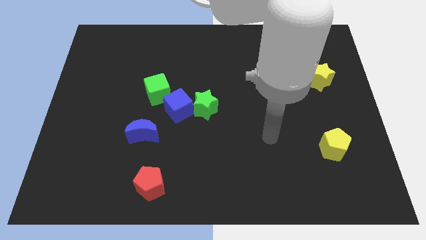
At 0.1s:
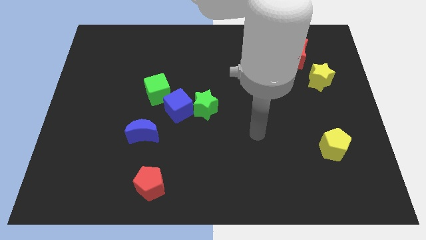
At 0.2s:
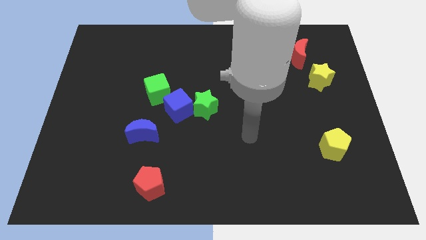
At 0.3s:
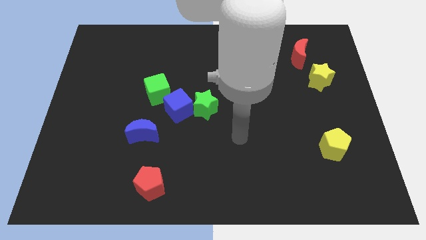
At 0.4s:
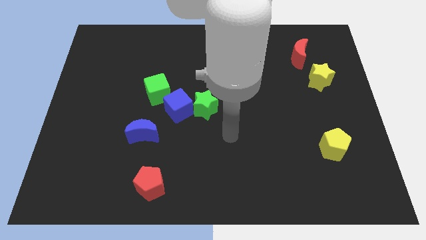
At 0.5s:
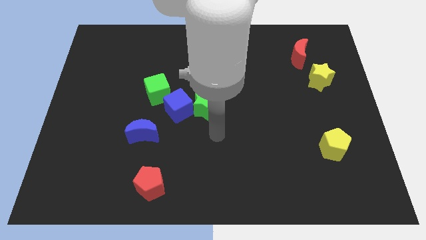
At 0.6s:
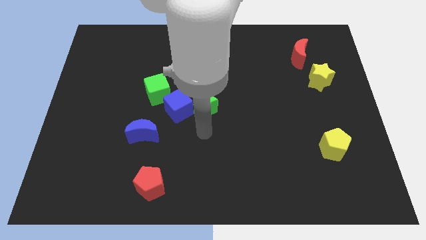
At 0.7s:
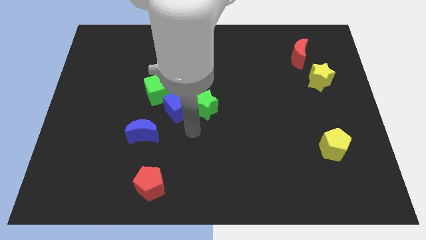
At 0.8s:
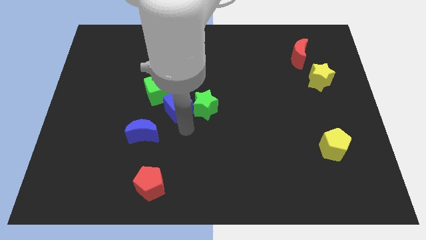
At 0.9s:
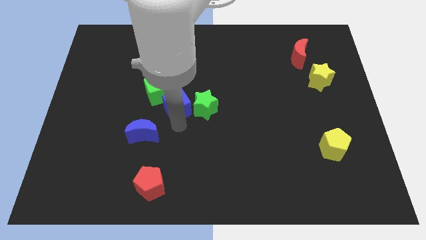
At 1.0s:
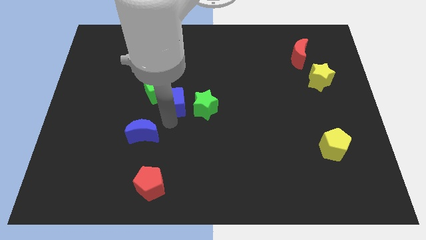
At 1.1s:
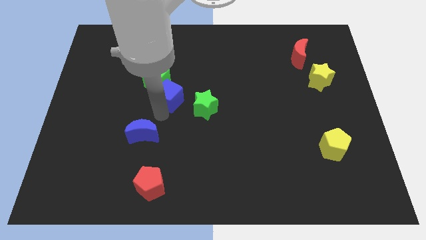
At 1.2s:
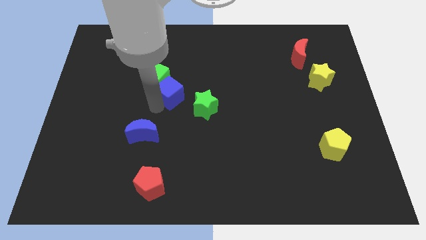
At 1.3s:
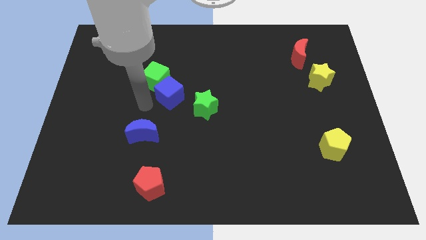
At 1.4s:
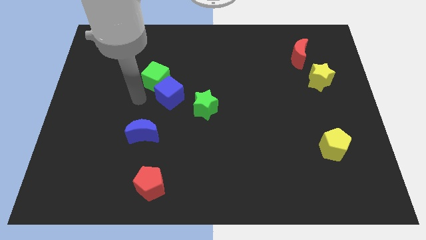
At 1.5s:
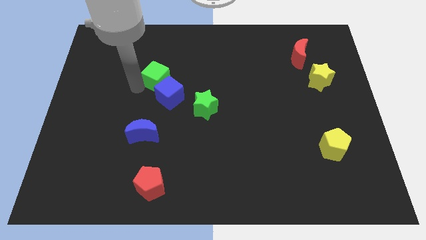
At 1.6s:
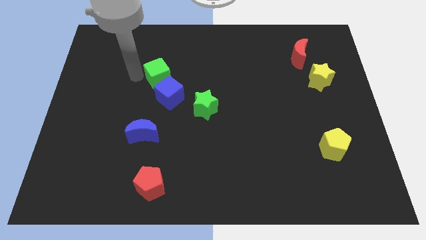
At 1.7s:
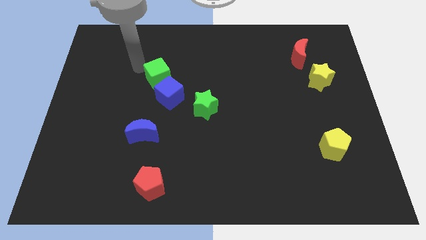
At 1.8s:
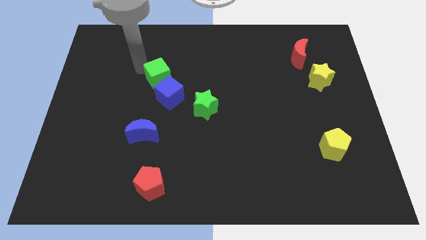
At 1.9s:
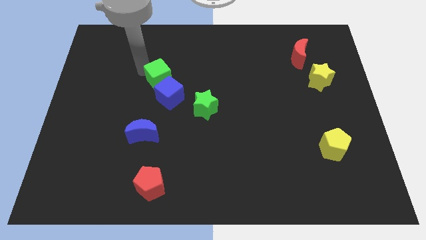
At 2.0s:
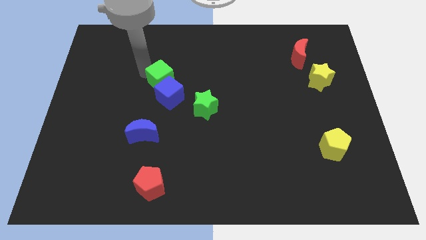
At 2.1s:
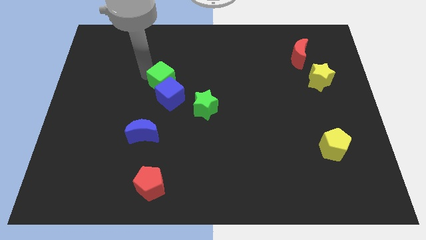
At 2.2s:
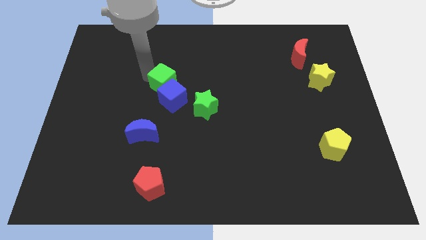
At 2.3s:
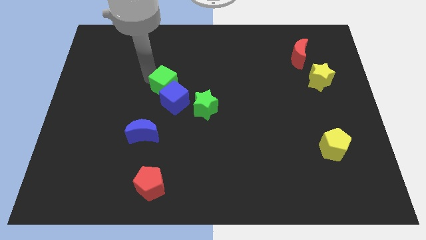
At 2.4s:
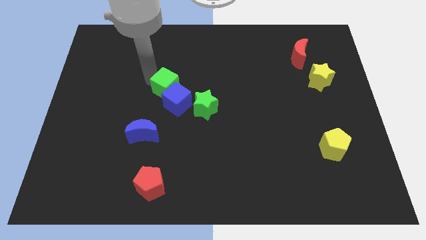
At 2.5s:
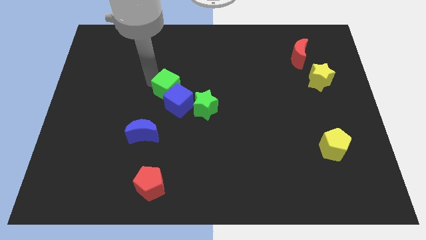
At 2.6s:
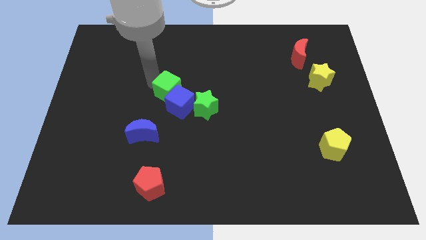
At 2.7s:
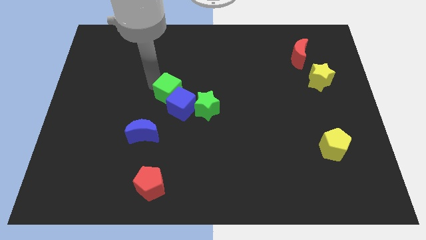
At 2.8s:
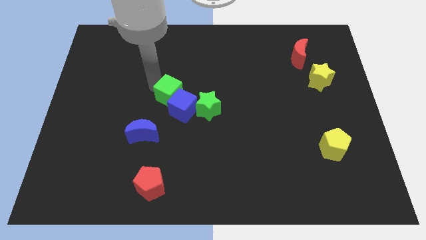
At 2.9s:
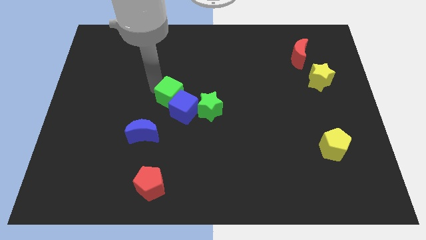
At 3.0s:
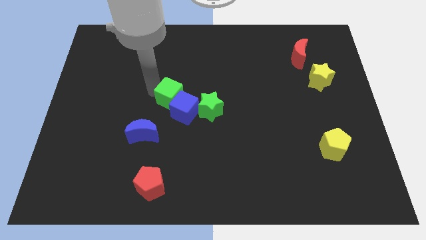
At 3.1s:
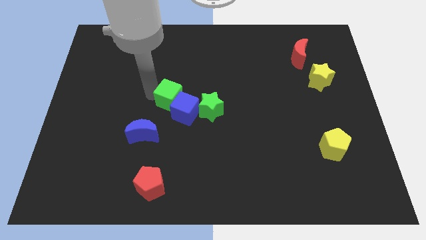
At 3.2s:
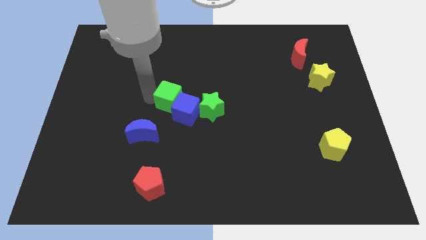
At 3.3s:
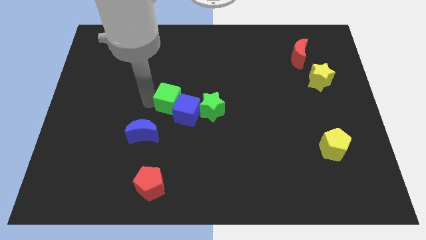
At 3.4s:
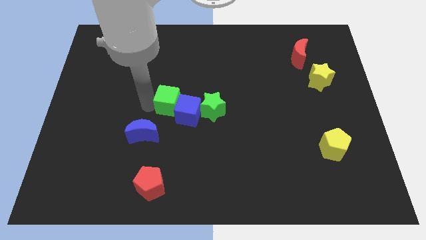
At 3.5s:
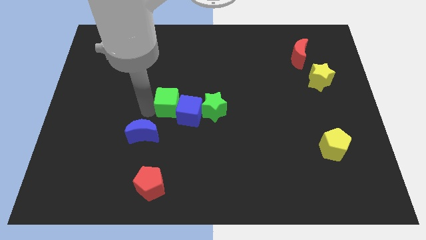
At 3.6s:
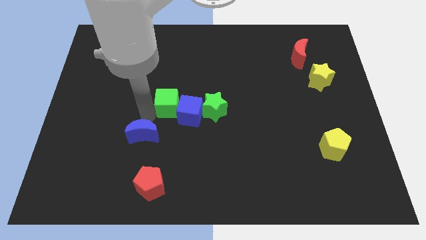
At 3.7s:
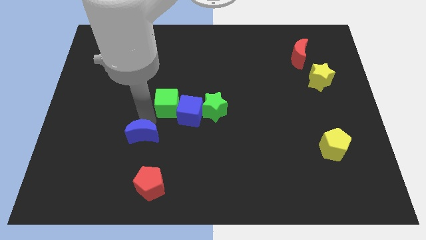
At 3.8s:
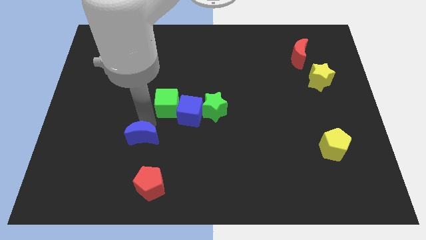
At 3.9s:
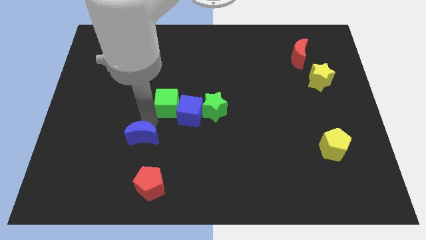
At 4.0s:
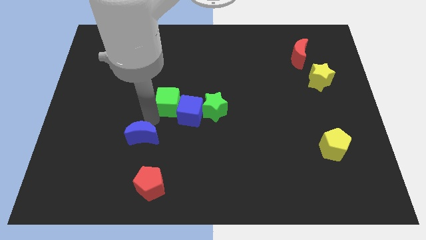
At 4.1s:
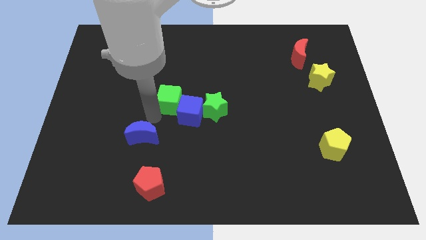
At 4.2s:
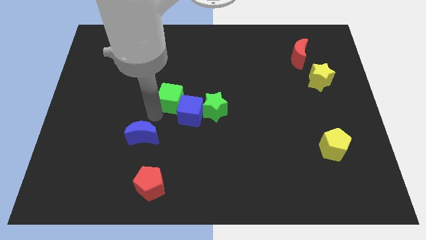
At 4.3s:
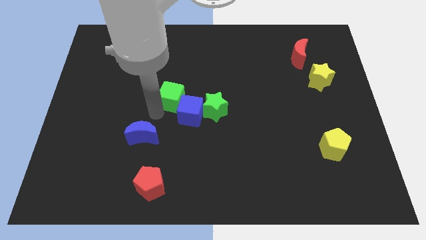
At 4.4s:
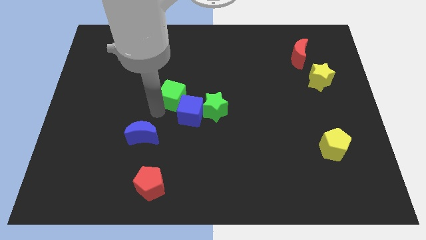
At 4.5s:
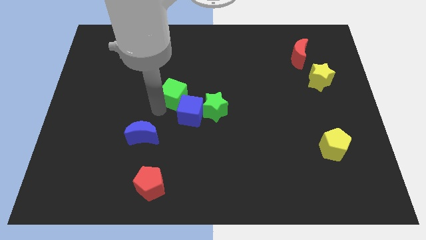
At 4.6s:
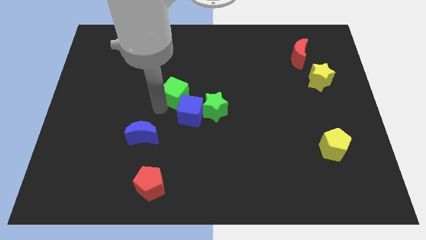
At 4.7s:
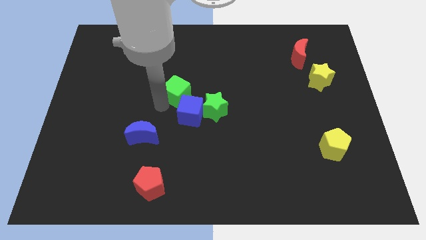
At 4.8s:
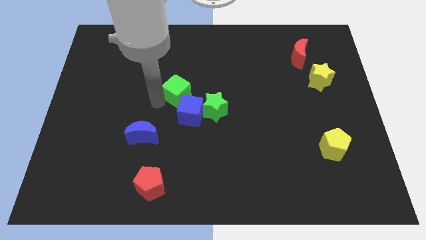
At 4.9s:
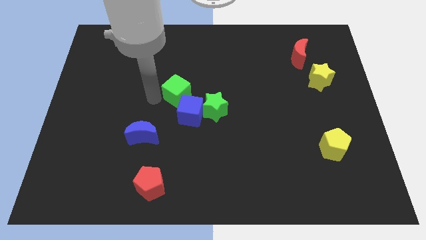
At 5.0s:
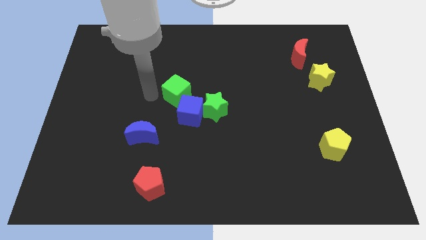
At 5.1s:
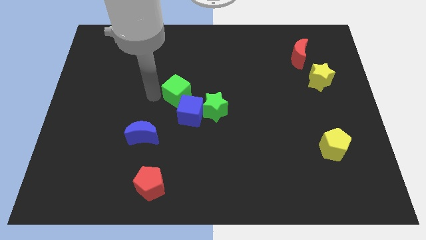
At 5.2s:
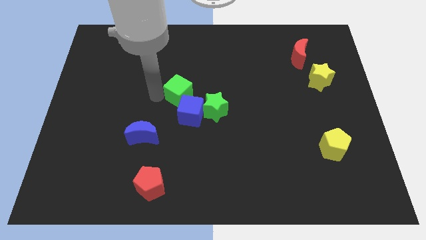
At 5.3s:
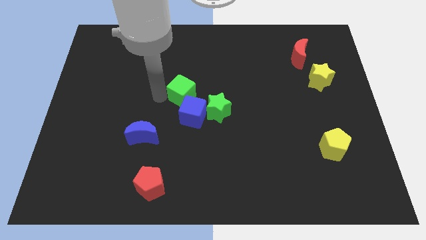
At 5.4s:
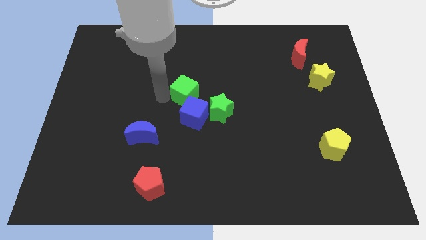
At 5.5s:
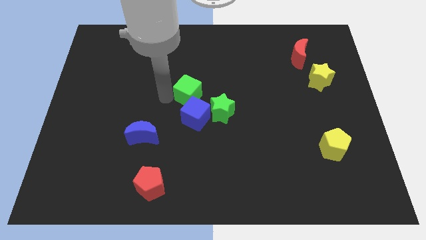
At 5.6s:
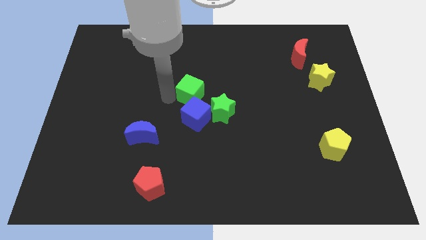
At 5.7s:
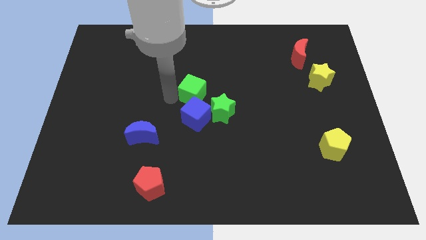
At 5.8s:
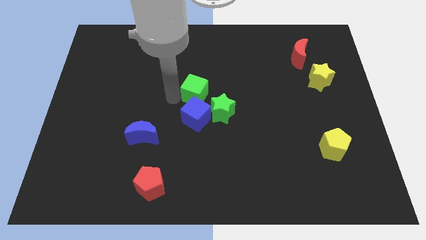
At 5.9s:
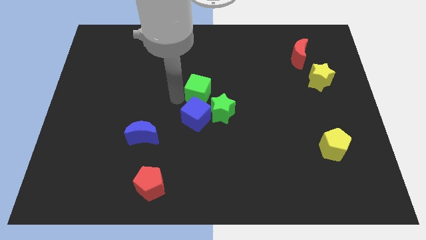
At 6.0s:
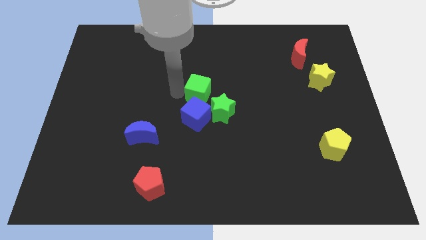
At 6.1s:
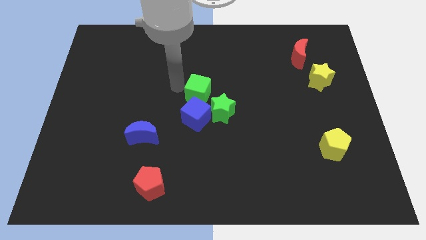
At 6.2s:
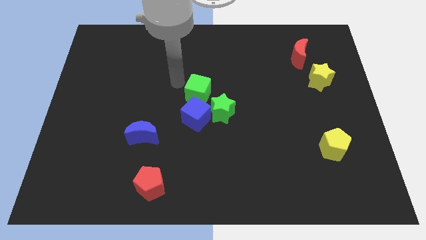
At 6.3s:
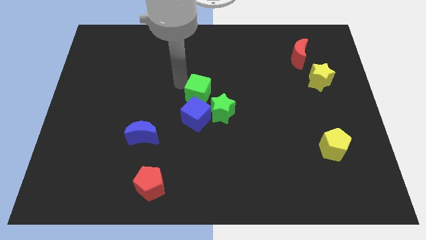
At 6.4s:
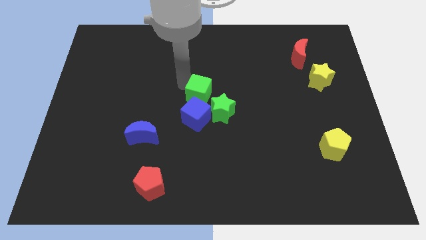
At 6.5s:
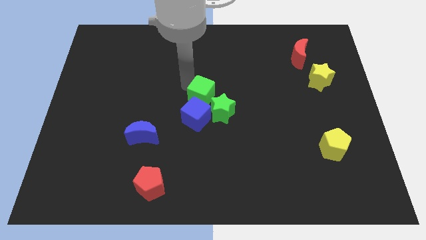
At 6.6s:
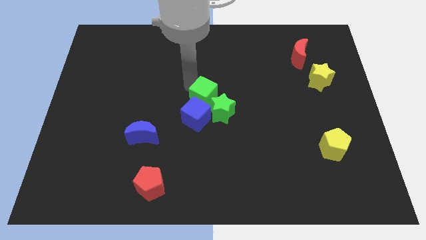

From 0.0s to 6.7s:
push the green cube down and right a little

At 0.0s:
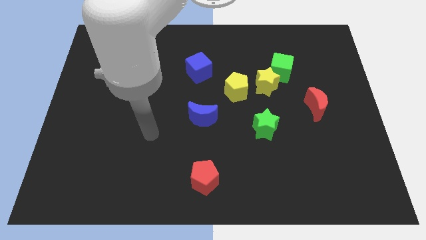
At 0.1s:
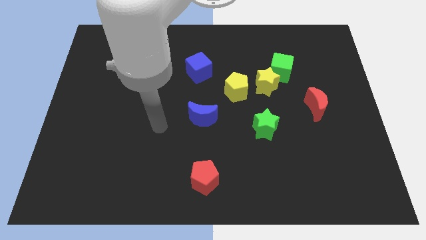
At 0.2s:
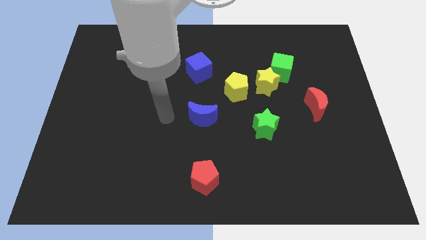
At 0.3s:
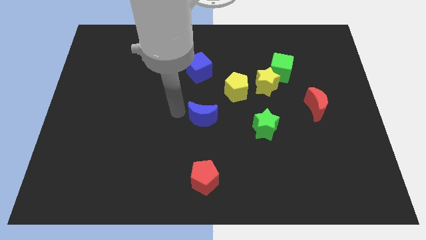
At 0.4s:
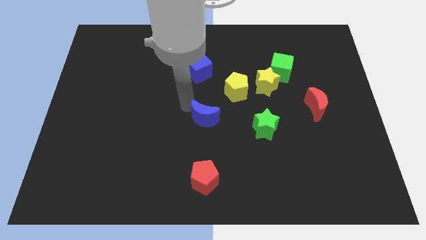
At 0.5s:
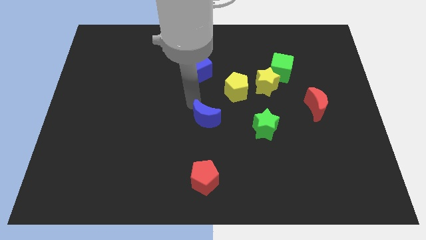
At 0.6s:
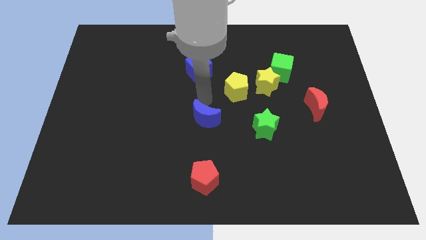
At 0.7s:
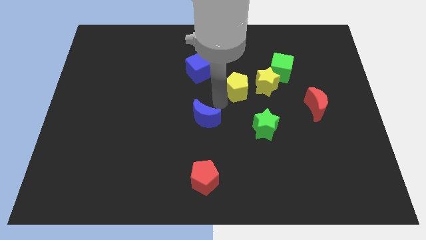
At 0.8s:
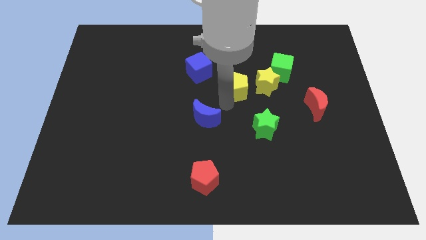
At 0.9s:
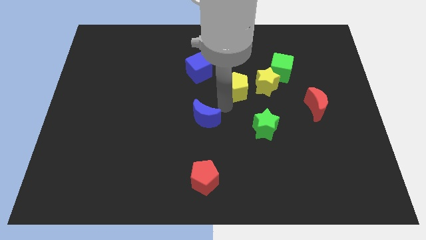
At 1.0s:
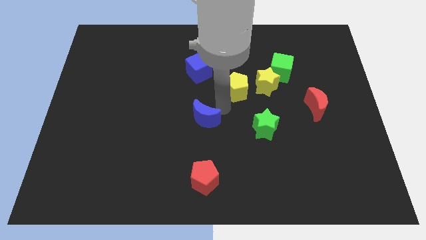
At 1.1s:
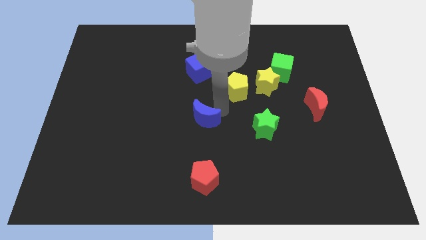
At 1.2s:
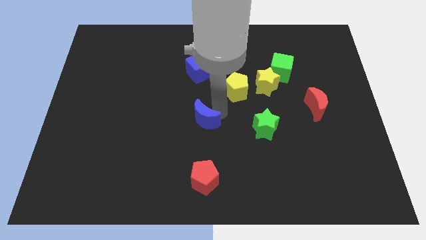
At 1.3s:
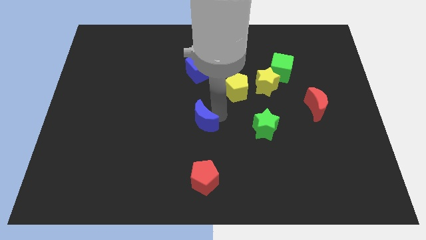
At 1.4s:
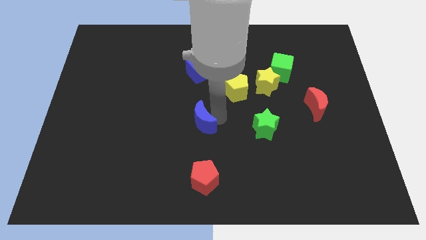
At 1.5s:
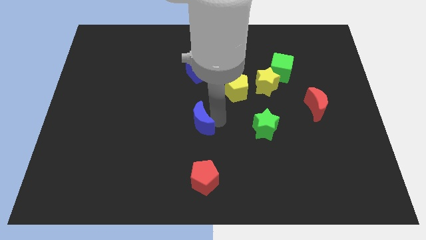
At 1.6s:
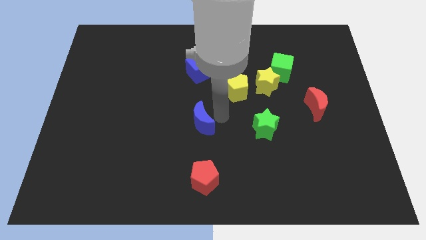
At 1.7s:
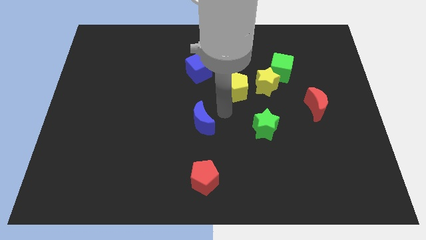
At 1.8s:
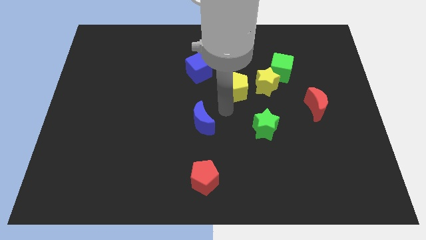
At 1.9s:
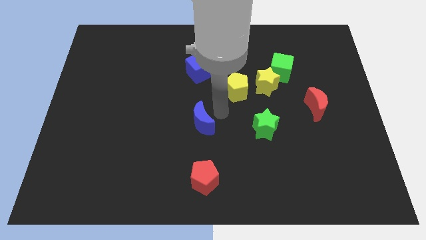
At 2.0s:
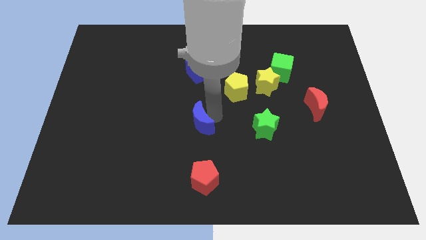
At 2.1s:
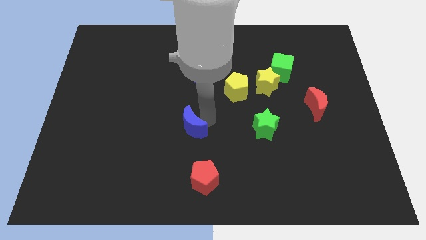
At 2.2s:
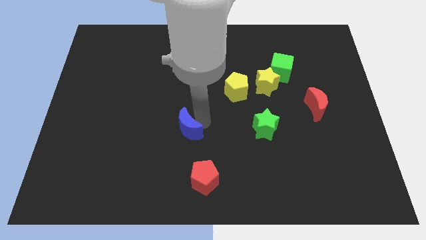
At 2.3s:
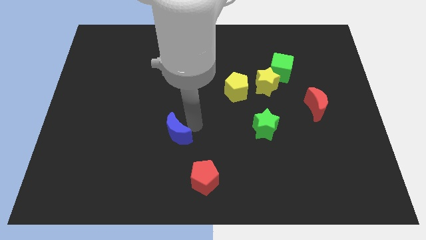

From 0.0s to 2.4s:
slightly slide the blue moon downwards and left diagonally
